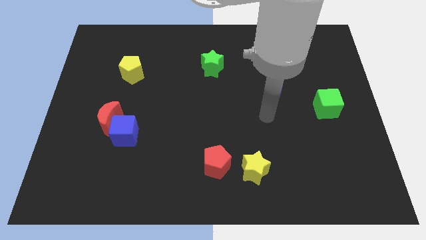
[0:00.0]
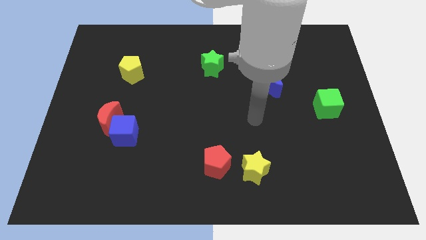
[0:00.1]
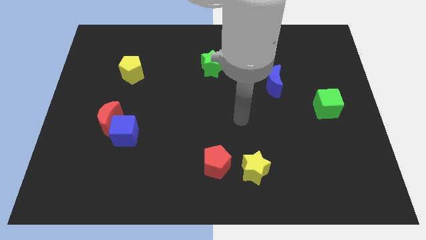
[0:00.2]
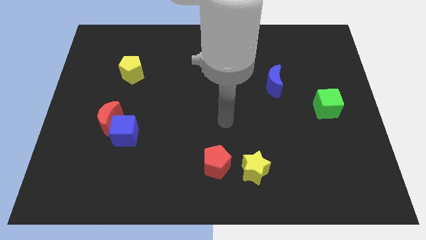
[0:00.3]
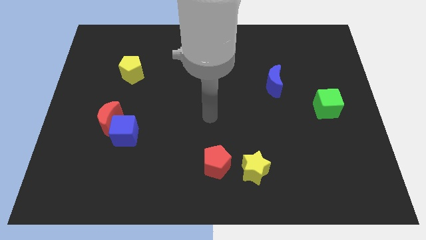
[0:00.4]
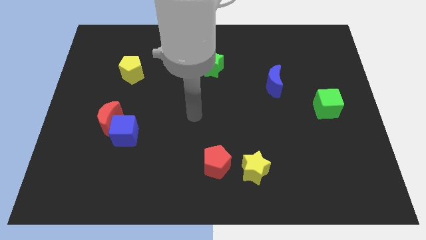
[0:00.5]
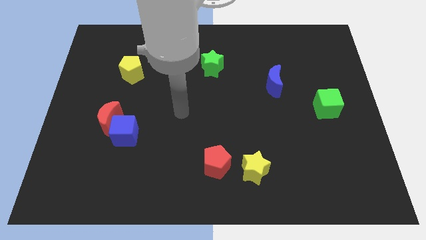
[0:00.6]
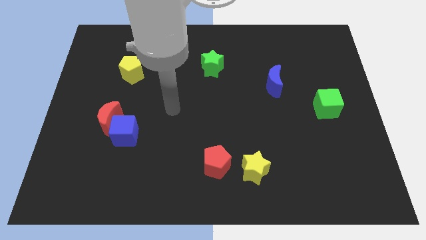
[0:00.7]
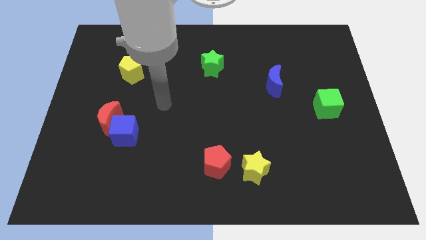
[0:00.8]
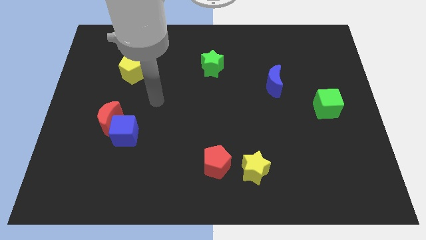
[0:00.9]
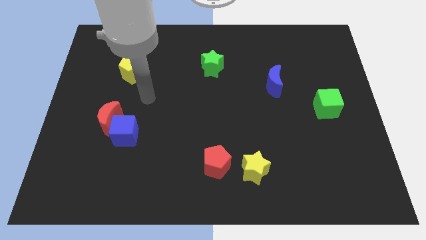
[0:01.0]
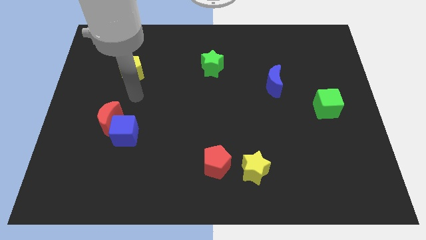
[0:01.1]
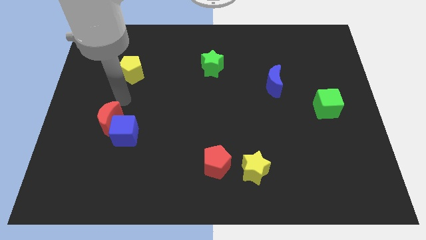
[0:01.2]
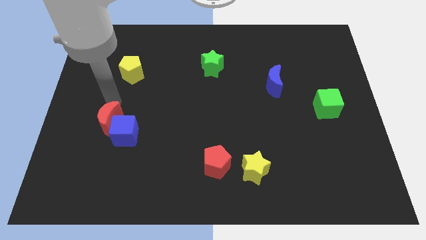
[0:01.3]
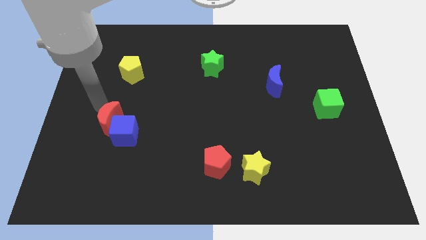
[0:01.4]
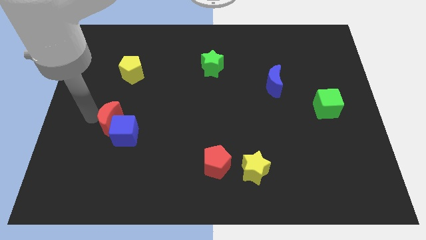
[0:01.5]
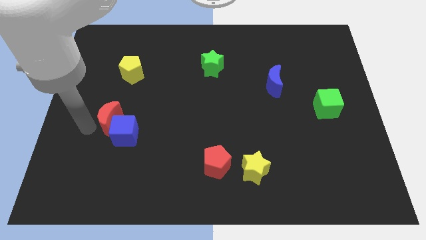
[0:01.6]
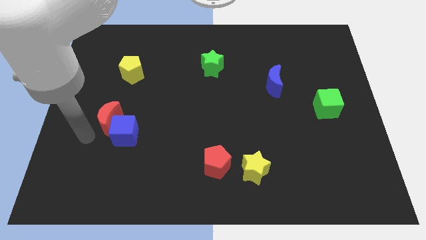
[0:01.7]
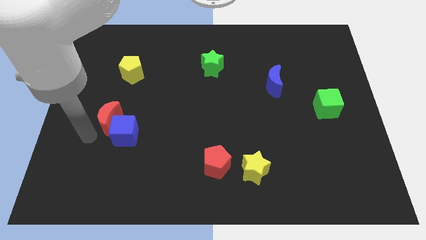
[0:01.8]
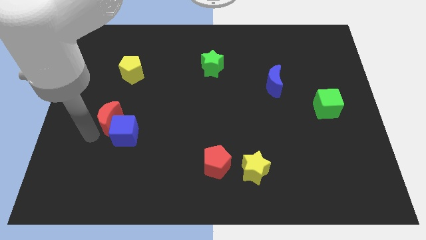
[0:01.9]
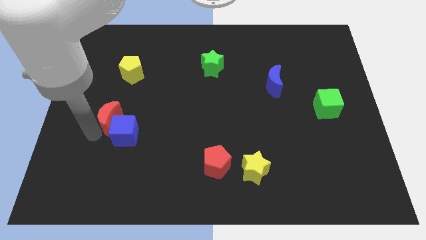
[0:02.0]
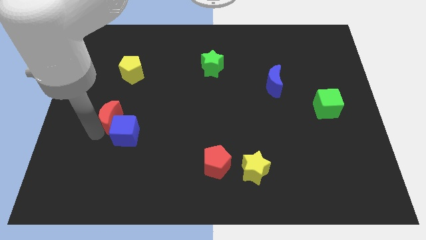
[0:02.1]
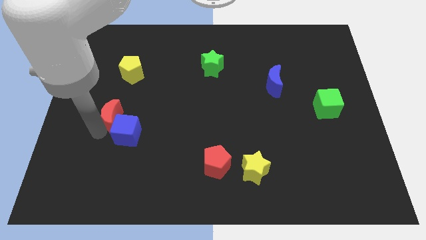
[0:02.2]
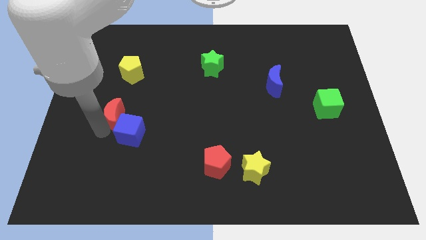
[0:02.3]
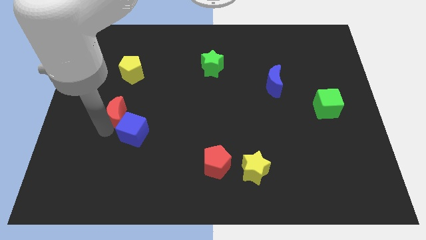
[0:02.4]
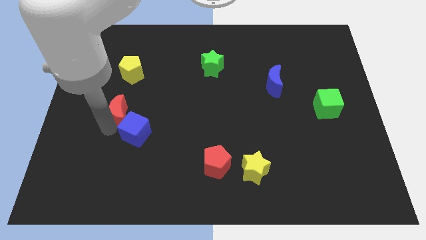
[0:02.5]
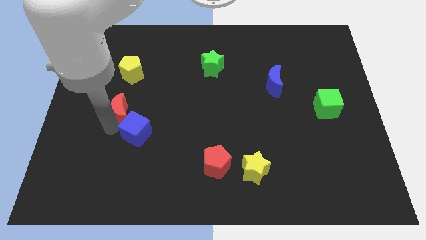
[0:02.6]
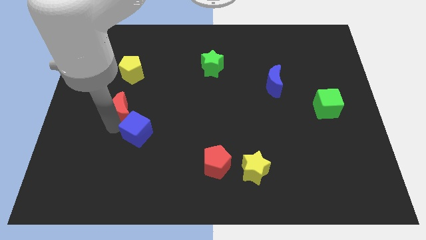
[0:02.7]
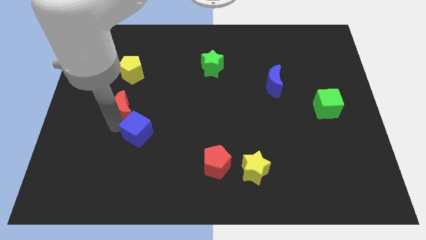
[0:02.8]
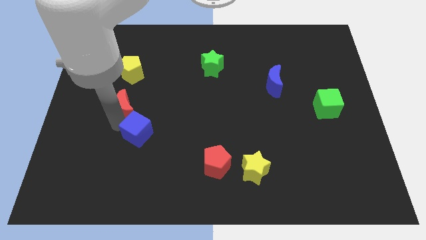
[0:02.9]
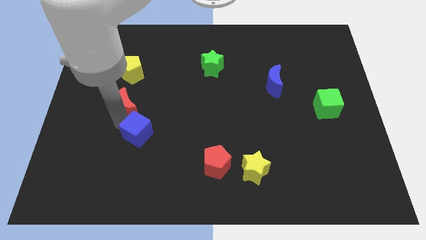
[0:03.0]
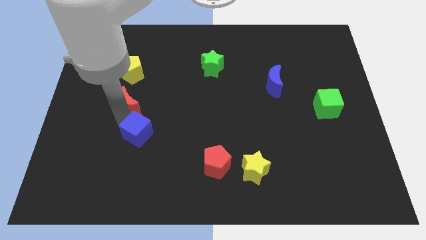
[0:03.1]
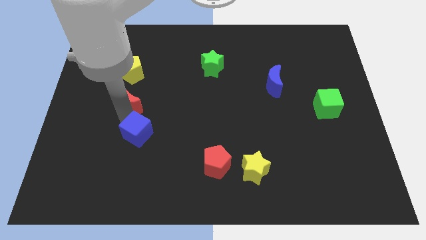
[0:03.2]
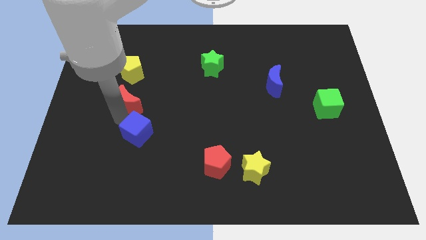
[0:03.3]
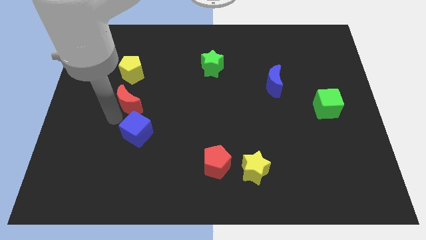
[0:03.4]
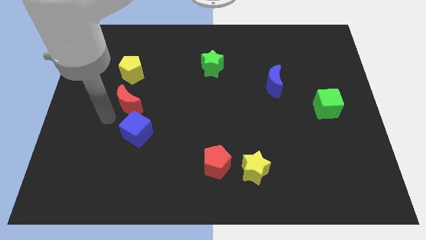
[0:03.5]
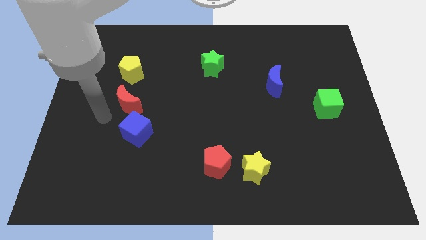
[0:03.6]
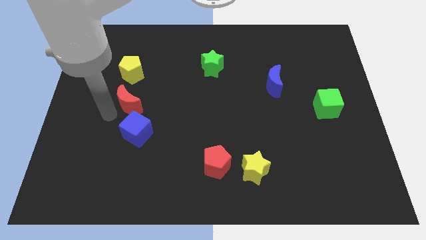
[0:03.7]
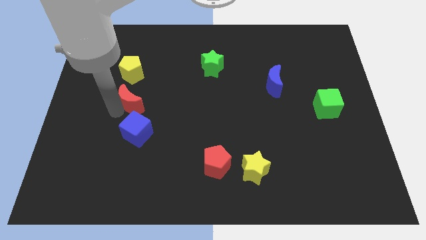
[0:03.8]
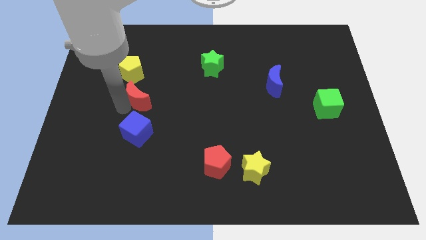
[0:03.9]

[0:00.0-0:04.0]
push the red moon somewhat up and right

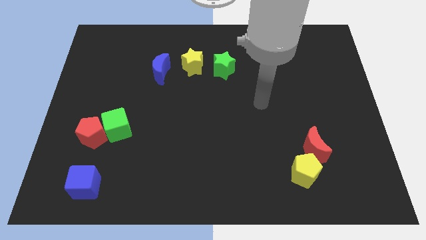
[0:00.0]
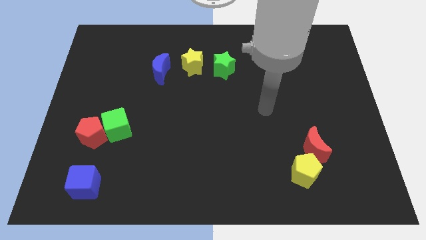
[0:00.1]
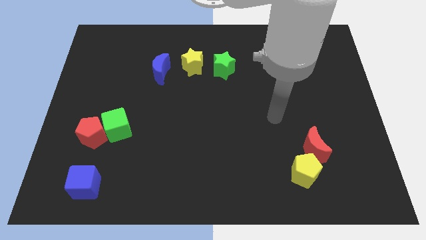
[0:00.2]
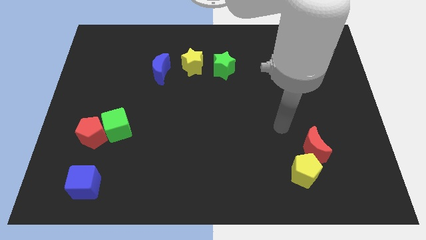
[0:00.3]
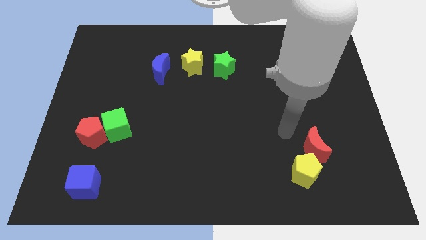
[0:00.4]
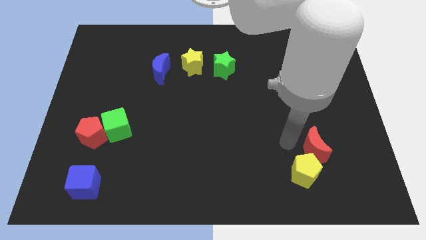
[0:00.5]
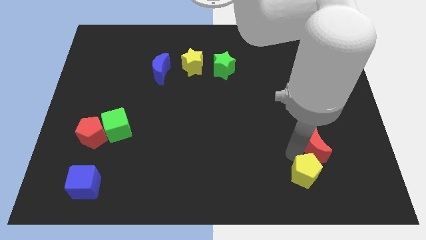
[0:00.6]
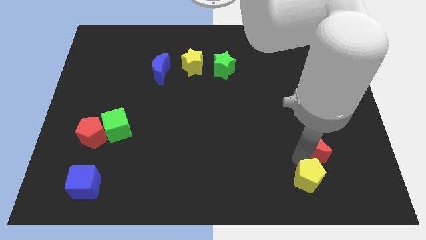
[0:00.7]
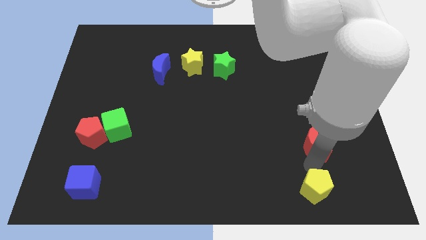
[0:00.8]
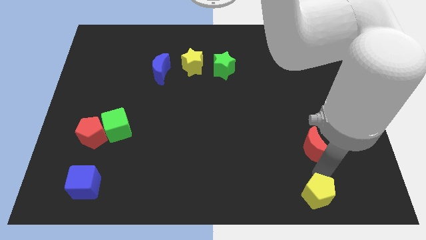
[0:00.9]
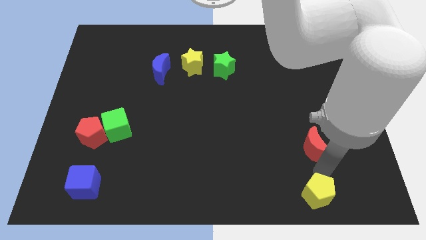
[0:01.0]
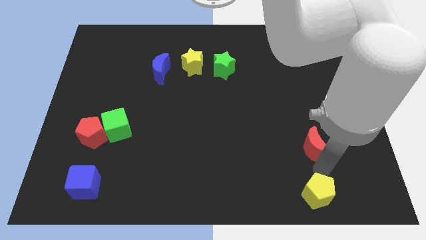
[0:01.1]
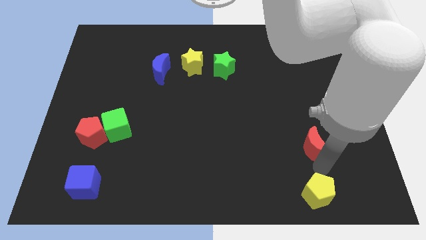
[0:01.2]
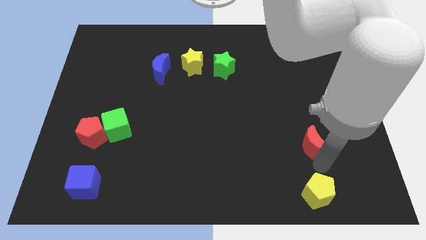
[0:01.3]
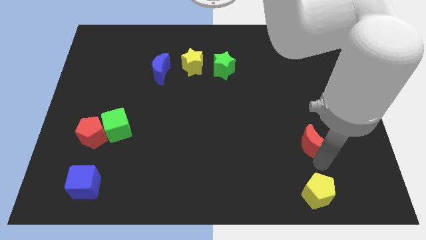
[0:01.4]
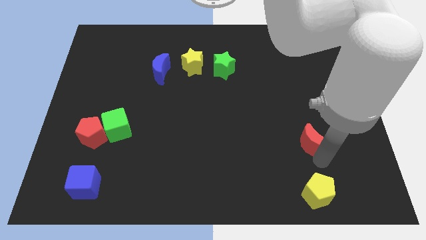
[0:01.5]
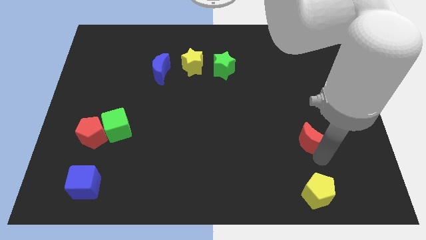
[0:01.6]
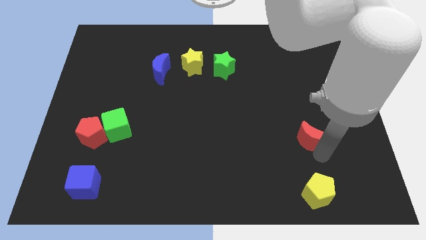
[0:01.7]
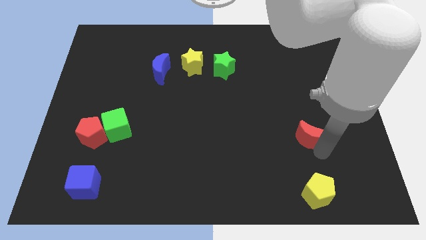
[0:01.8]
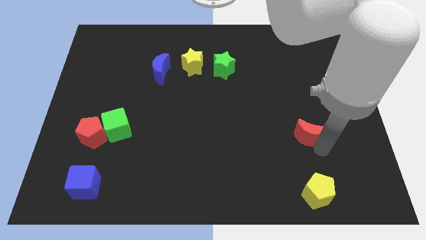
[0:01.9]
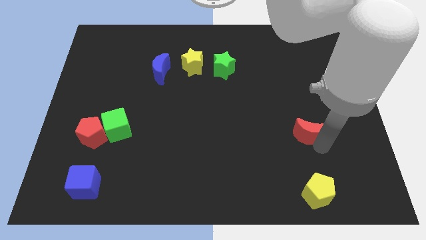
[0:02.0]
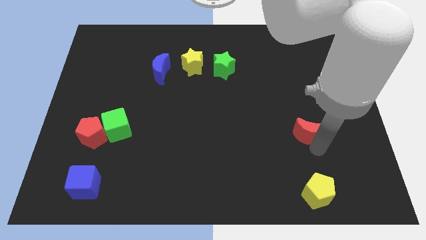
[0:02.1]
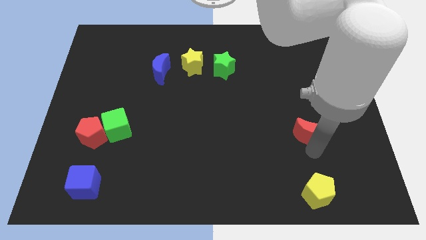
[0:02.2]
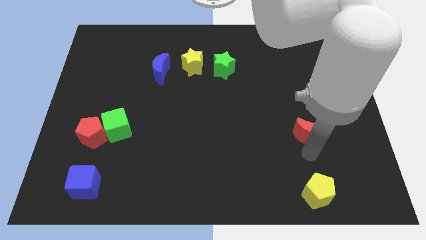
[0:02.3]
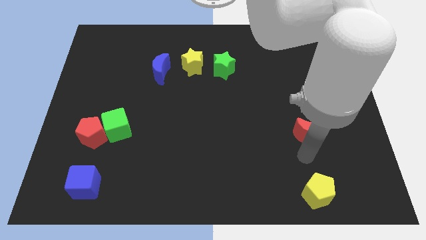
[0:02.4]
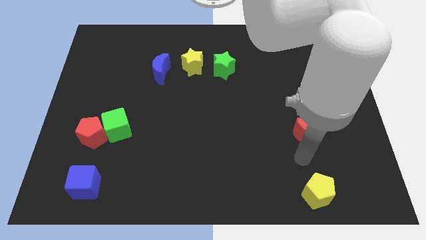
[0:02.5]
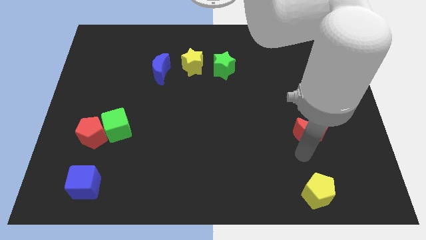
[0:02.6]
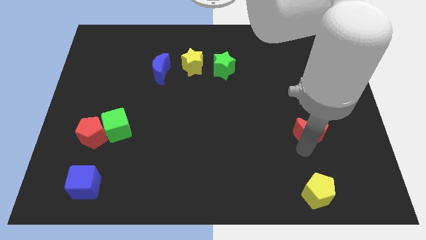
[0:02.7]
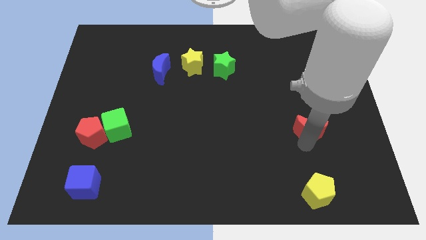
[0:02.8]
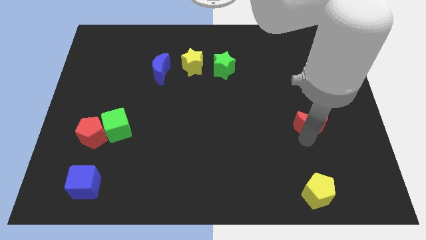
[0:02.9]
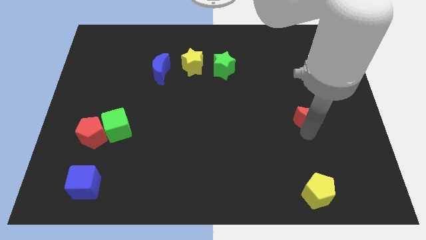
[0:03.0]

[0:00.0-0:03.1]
slightly push the red moon upwards

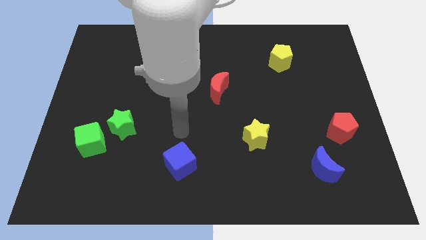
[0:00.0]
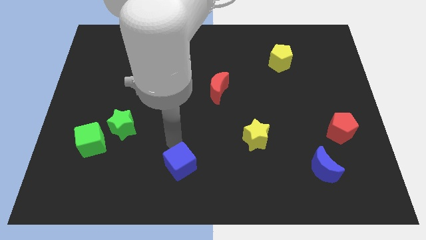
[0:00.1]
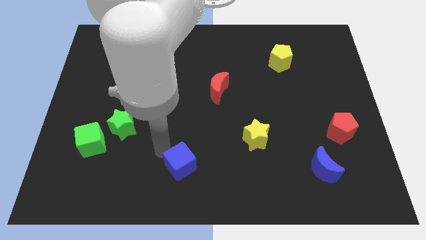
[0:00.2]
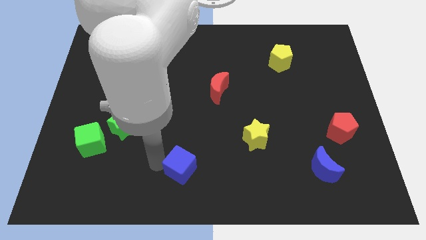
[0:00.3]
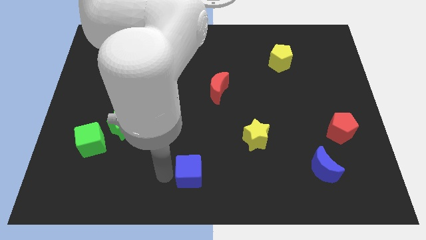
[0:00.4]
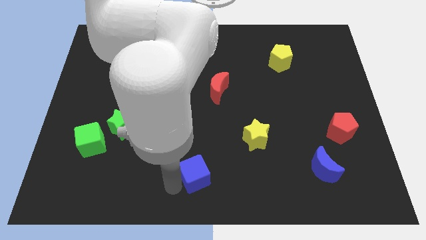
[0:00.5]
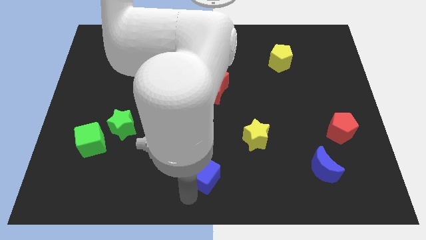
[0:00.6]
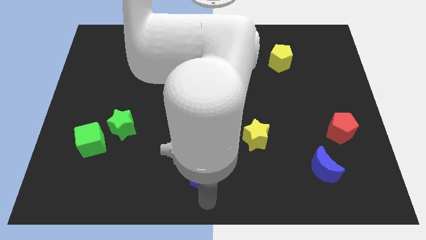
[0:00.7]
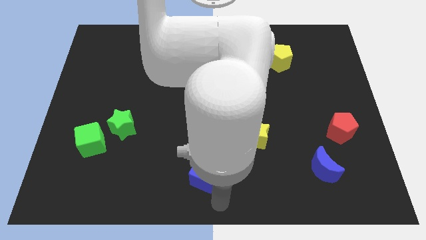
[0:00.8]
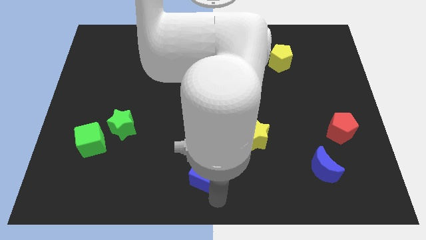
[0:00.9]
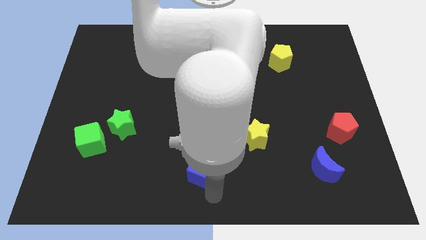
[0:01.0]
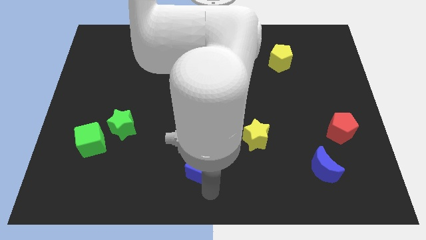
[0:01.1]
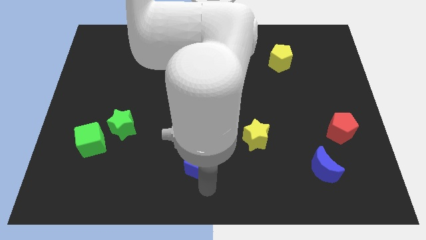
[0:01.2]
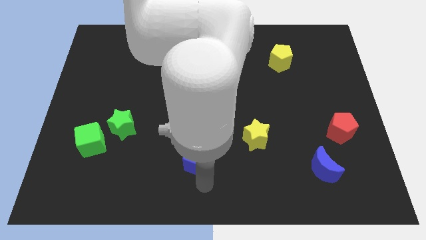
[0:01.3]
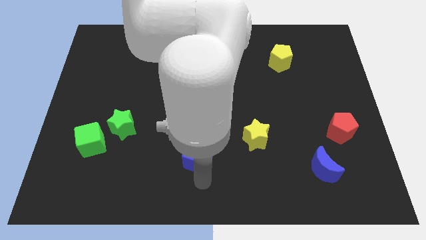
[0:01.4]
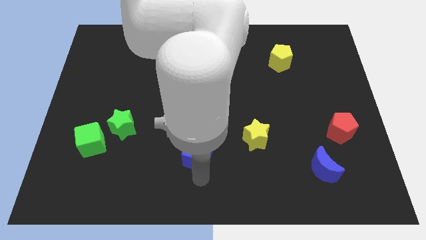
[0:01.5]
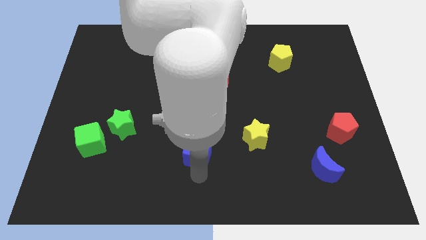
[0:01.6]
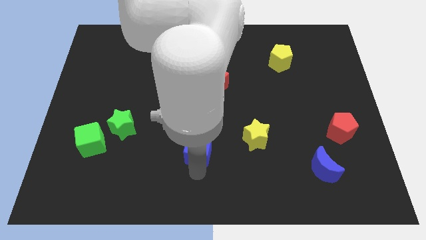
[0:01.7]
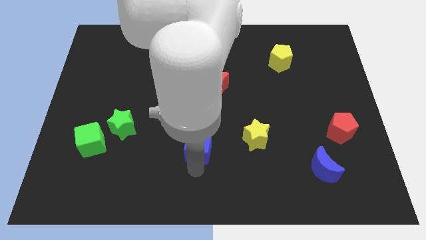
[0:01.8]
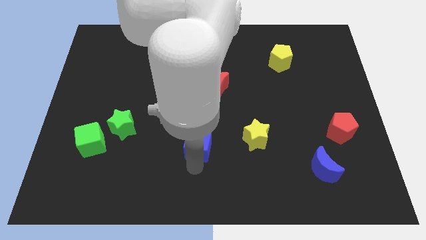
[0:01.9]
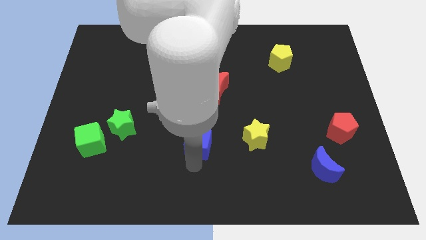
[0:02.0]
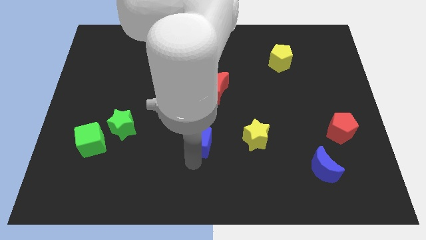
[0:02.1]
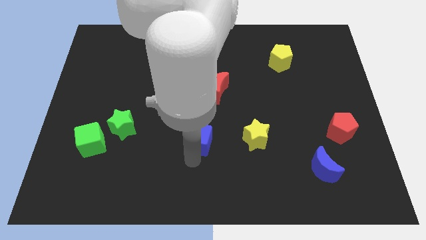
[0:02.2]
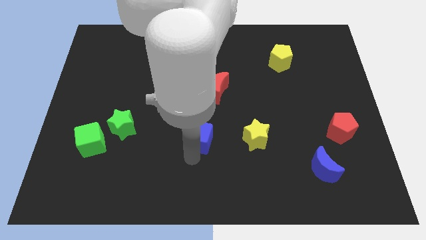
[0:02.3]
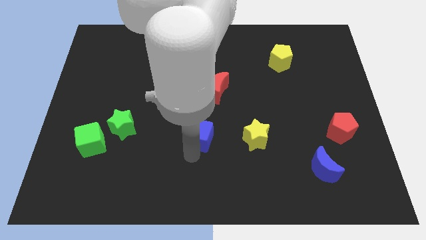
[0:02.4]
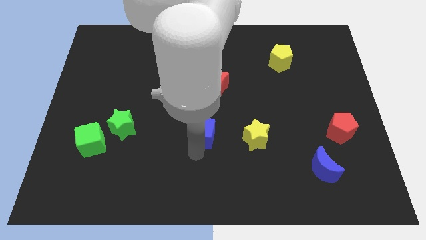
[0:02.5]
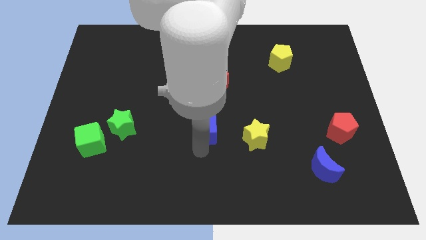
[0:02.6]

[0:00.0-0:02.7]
slide the blue cube up a little
